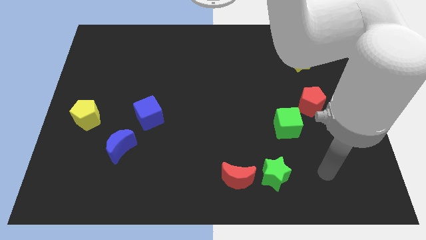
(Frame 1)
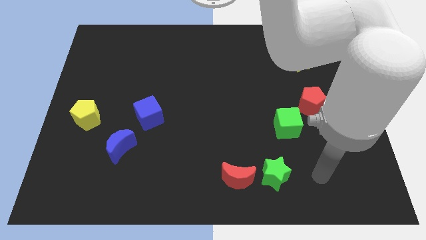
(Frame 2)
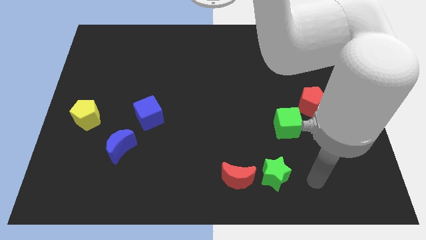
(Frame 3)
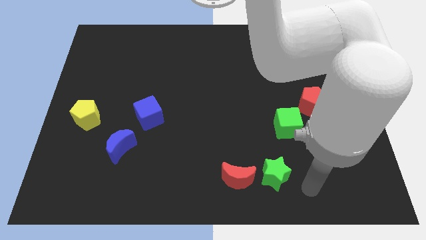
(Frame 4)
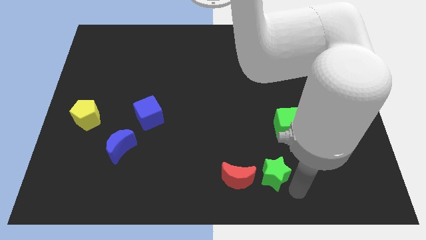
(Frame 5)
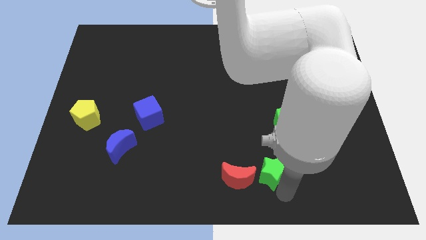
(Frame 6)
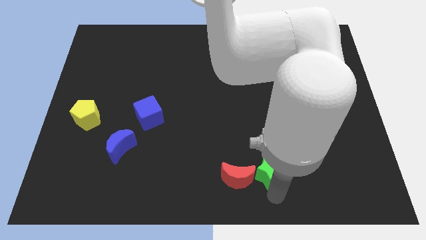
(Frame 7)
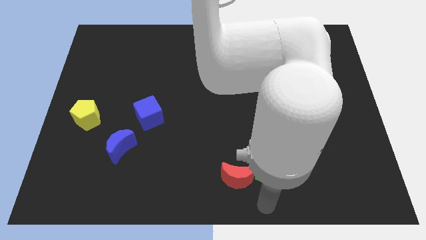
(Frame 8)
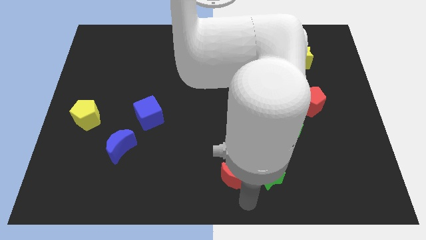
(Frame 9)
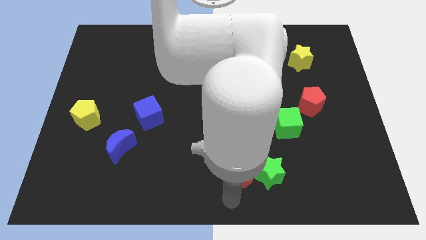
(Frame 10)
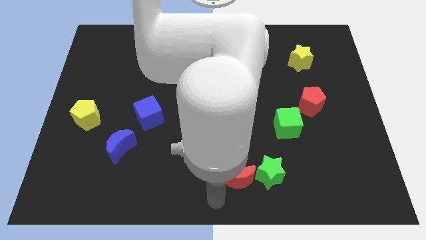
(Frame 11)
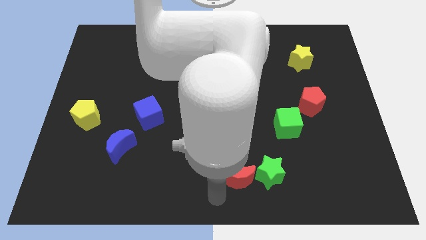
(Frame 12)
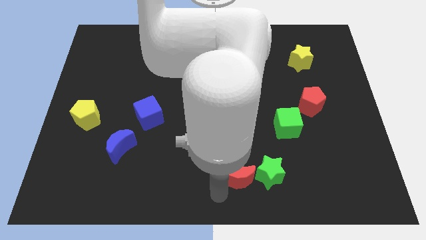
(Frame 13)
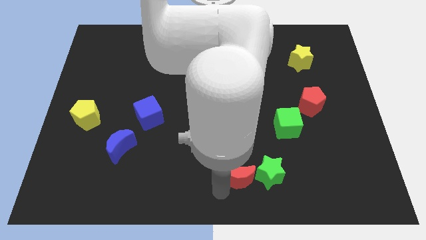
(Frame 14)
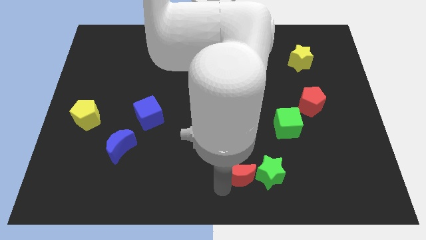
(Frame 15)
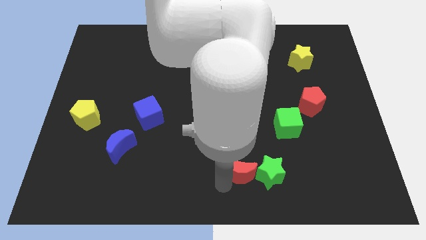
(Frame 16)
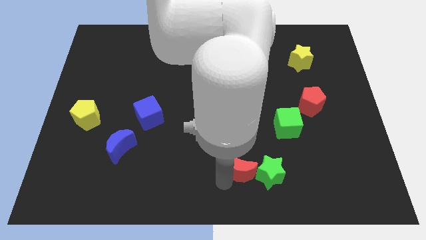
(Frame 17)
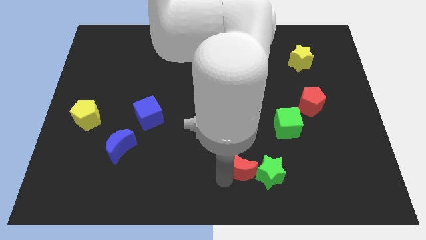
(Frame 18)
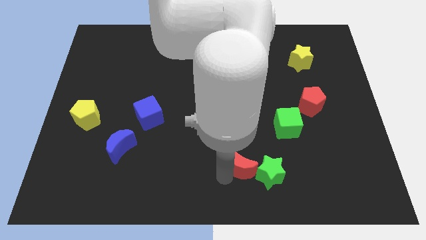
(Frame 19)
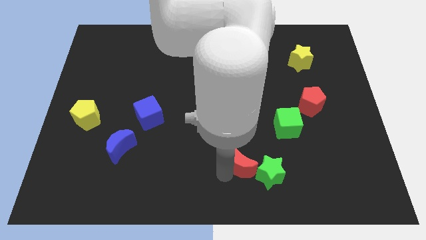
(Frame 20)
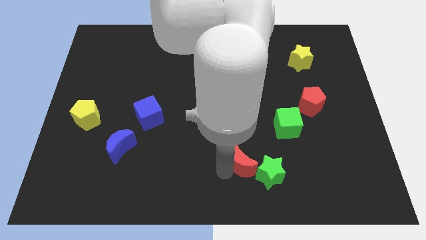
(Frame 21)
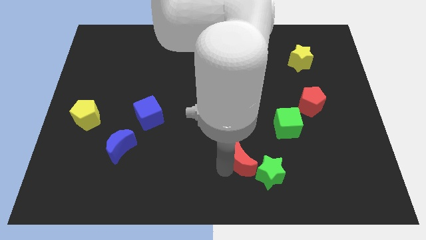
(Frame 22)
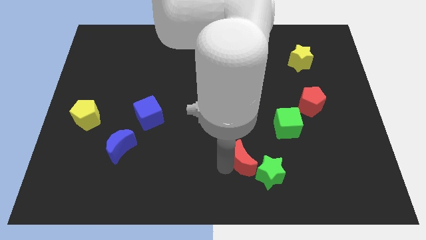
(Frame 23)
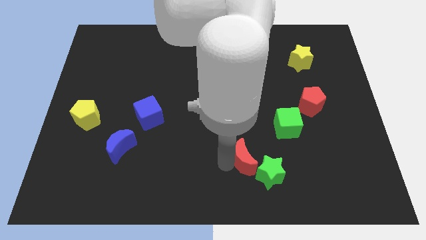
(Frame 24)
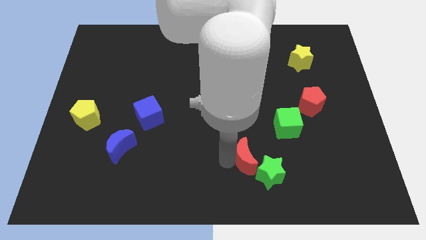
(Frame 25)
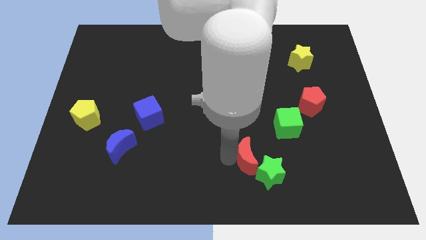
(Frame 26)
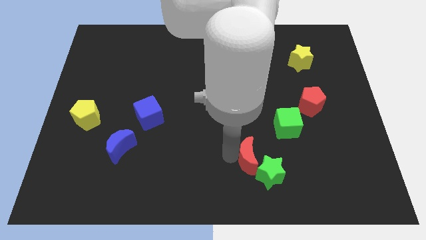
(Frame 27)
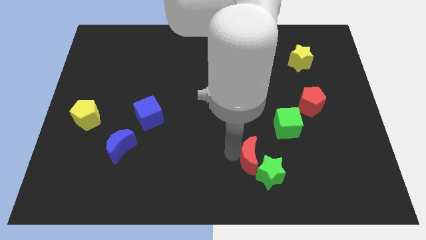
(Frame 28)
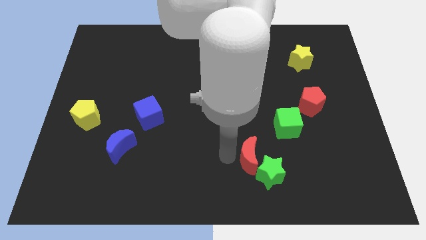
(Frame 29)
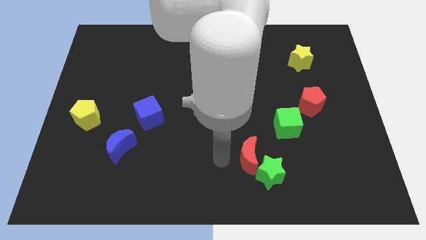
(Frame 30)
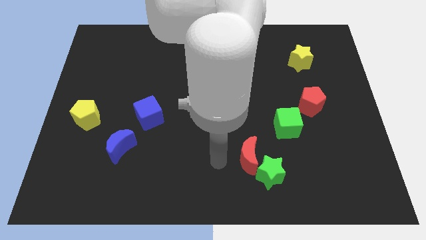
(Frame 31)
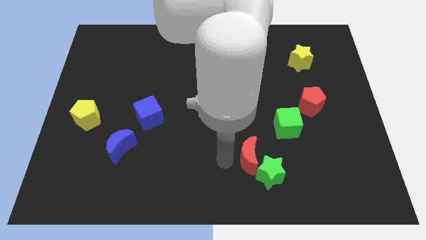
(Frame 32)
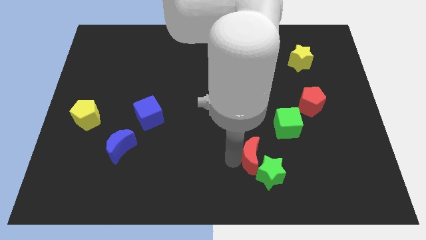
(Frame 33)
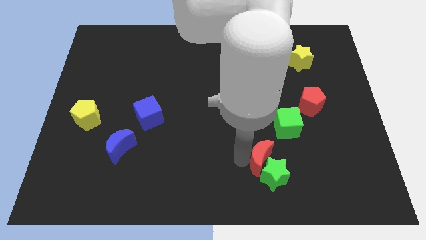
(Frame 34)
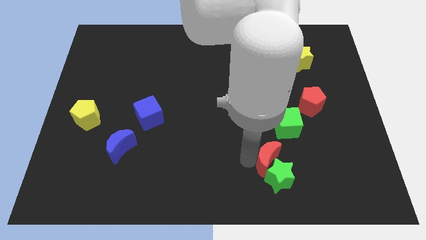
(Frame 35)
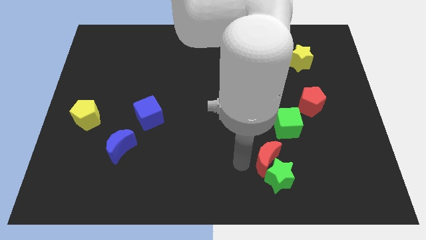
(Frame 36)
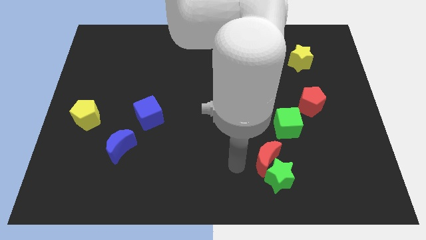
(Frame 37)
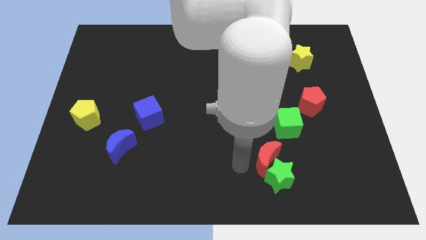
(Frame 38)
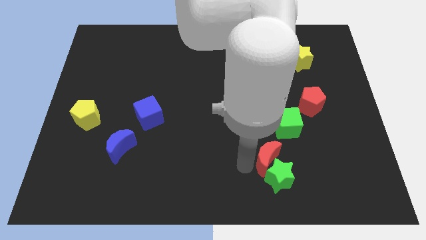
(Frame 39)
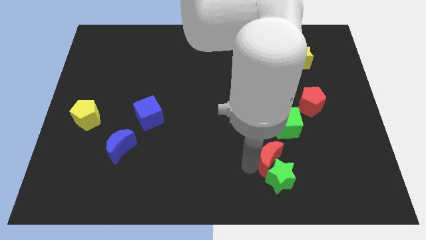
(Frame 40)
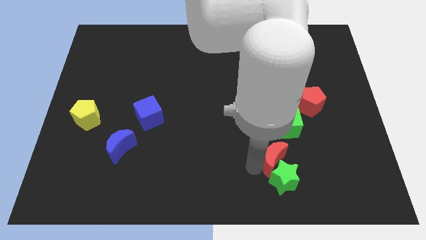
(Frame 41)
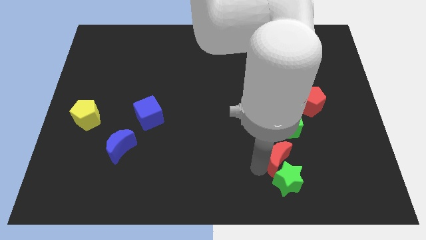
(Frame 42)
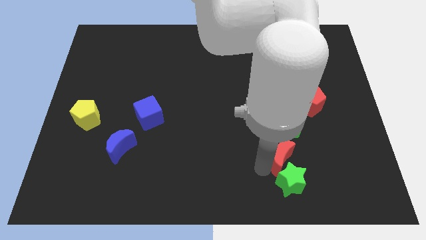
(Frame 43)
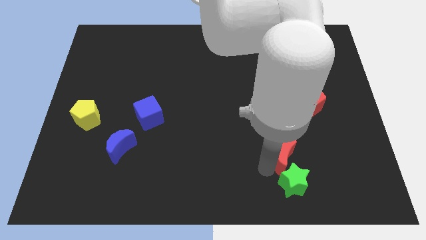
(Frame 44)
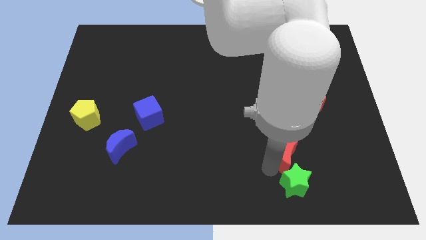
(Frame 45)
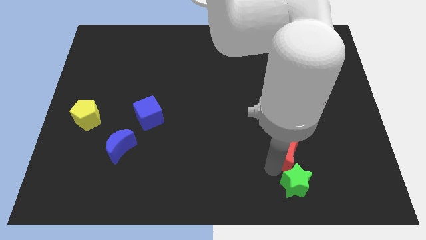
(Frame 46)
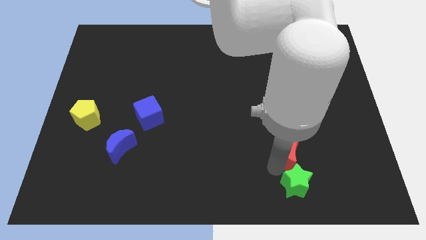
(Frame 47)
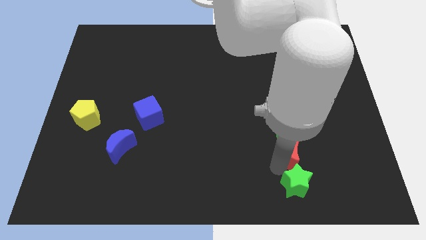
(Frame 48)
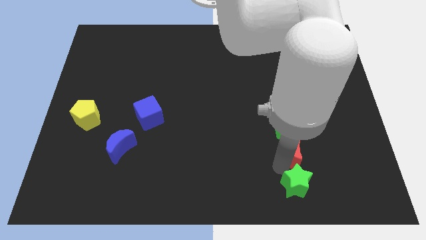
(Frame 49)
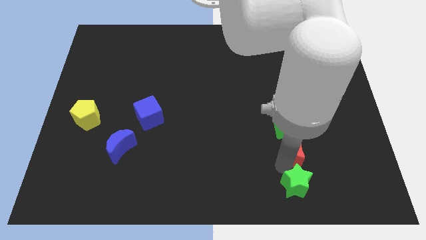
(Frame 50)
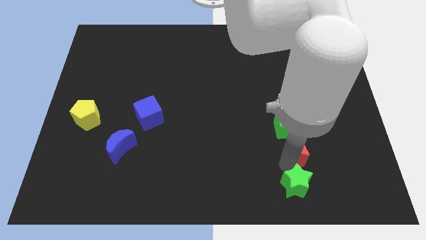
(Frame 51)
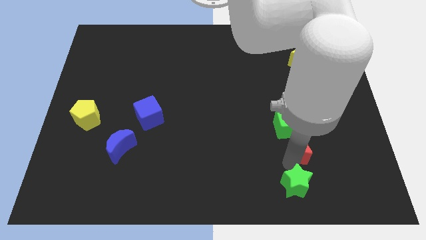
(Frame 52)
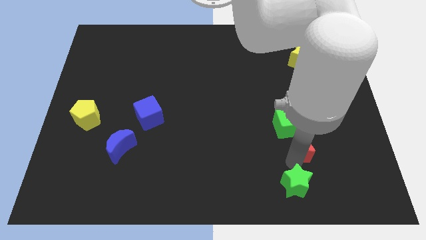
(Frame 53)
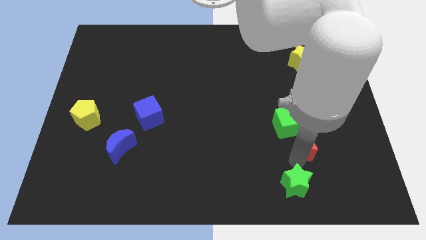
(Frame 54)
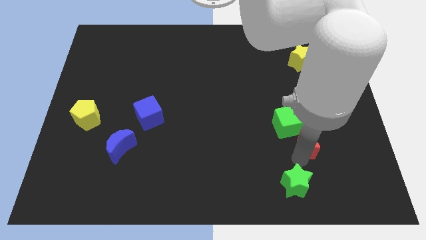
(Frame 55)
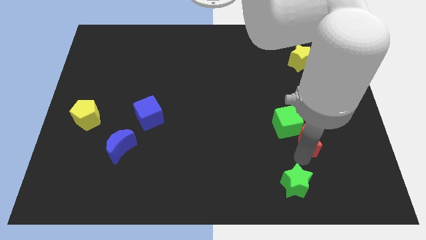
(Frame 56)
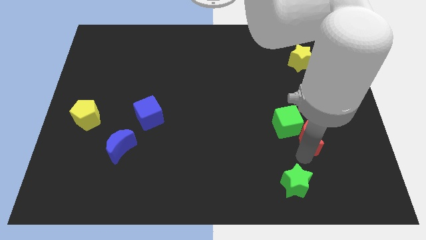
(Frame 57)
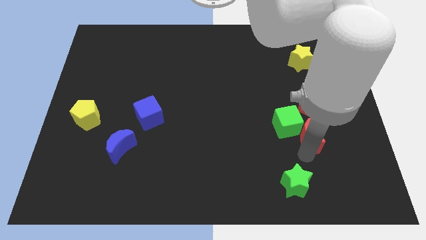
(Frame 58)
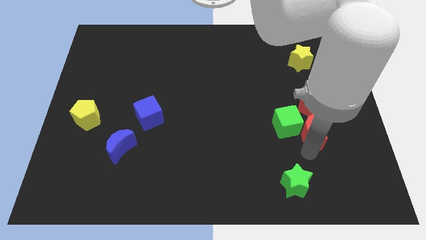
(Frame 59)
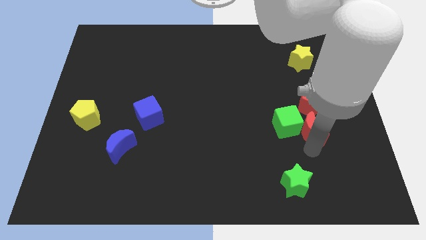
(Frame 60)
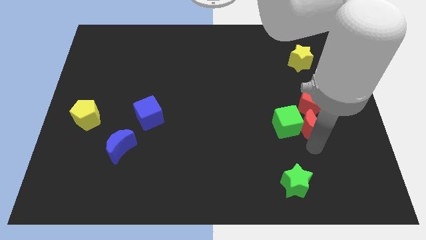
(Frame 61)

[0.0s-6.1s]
slide the red moon diagonally upwards and right

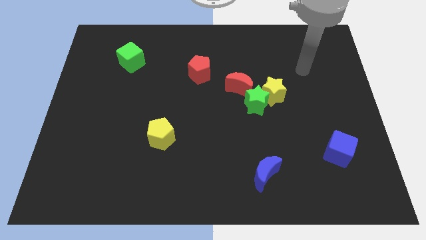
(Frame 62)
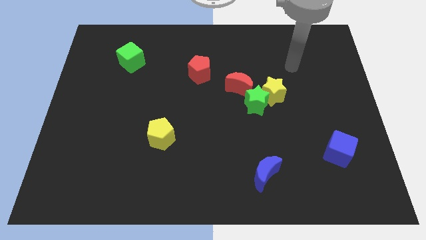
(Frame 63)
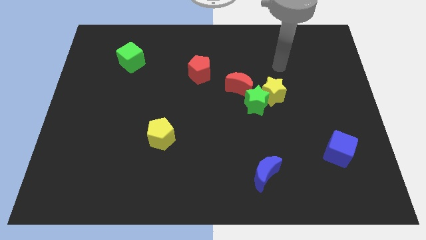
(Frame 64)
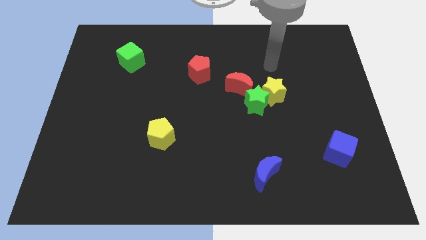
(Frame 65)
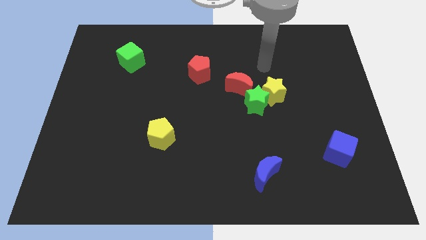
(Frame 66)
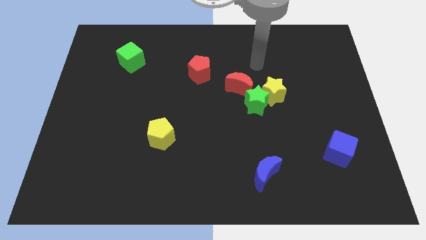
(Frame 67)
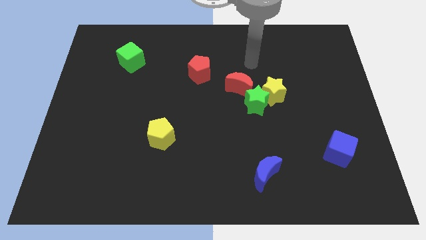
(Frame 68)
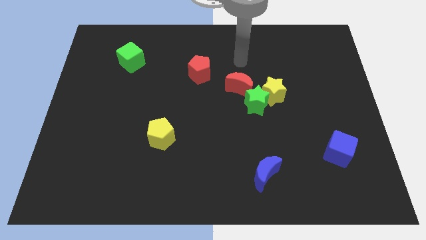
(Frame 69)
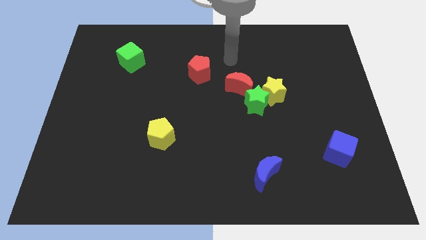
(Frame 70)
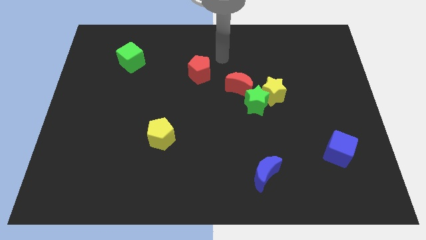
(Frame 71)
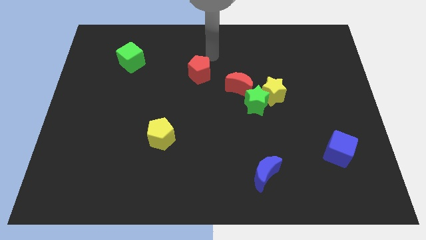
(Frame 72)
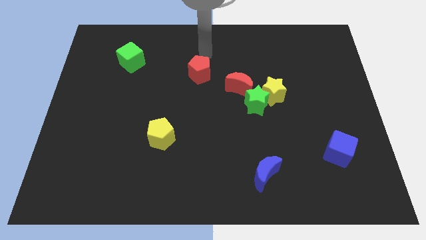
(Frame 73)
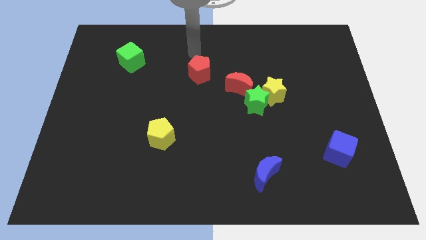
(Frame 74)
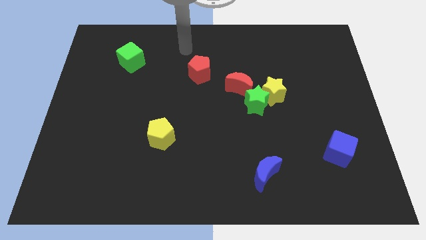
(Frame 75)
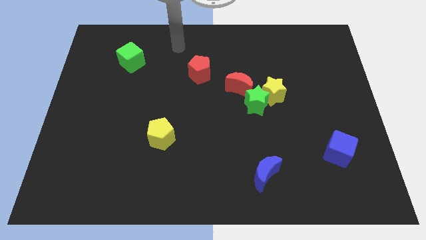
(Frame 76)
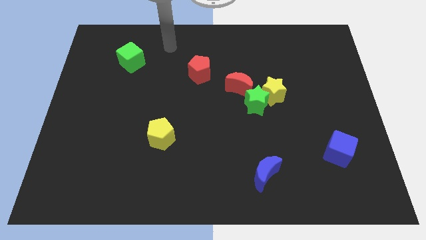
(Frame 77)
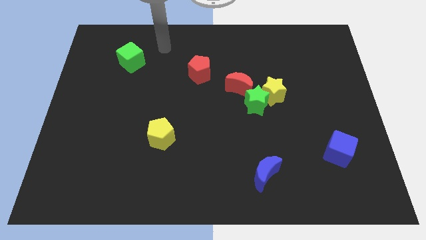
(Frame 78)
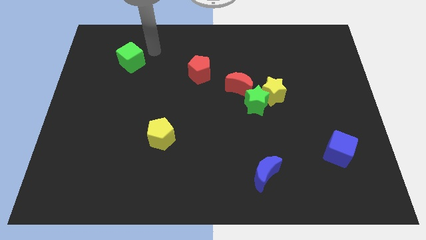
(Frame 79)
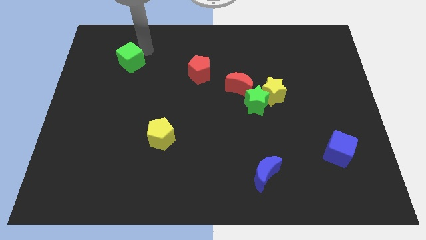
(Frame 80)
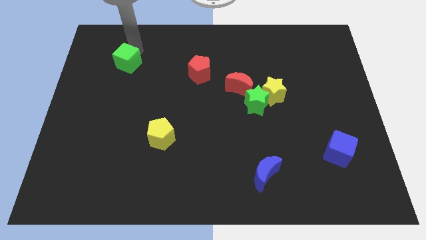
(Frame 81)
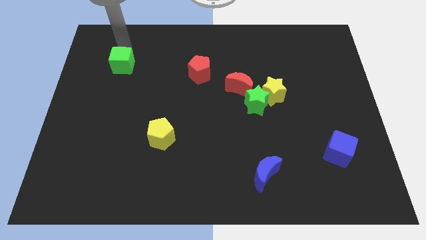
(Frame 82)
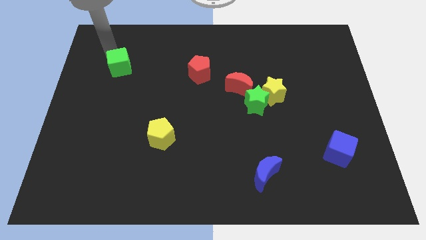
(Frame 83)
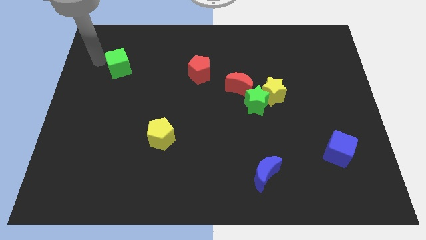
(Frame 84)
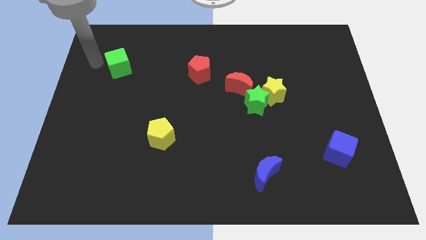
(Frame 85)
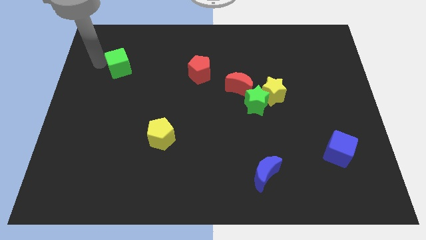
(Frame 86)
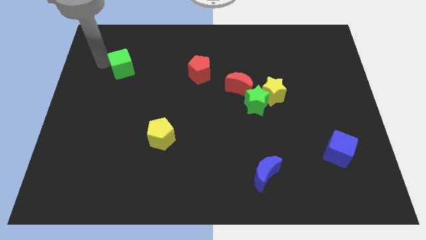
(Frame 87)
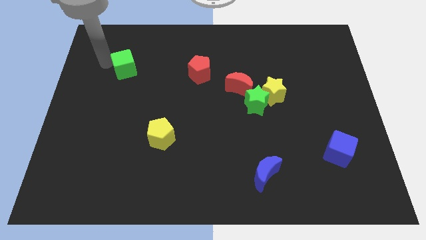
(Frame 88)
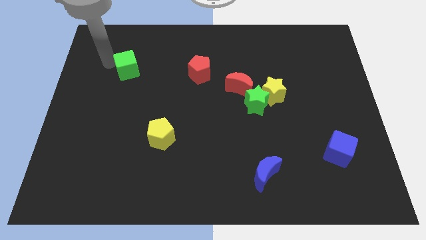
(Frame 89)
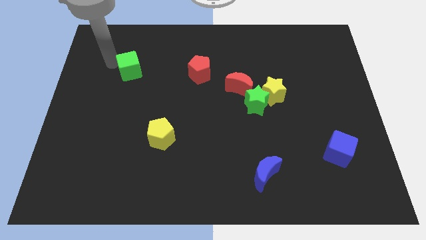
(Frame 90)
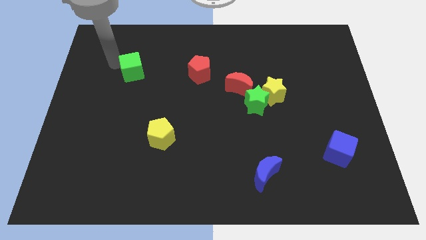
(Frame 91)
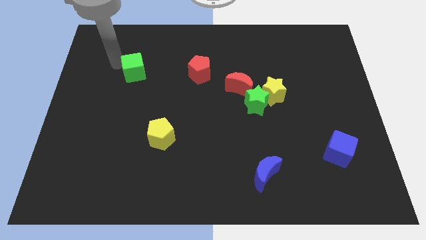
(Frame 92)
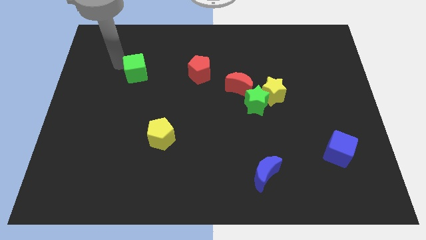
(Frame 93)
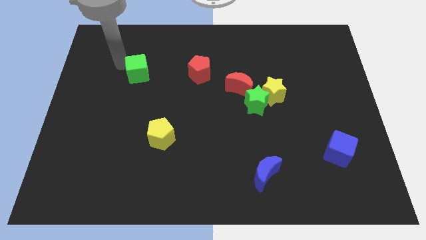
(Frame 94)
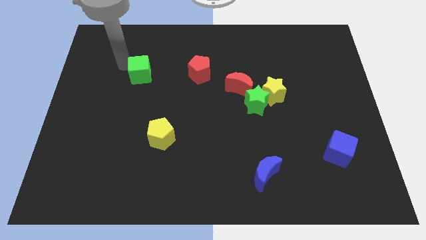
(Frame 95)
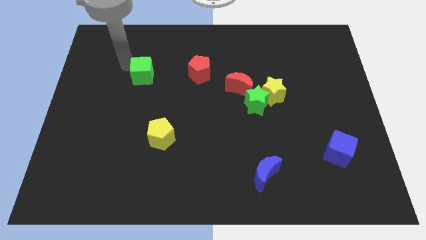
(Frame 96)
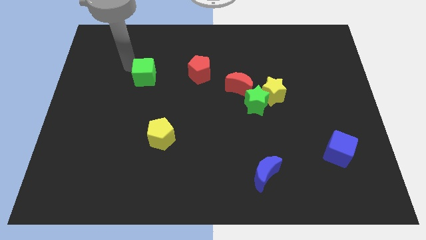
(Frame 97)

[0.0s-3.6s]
move the green cube down and to the right a little bit
